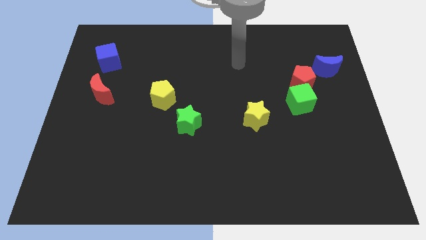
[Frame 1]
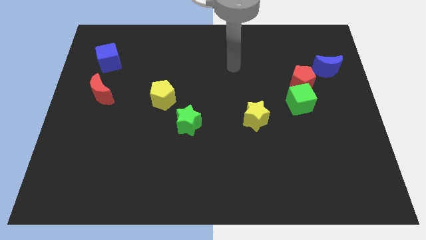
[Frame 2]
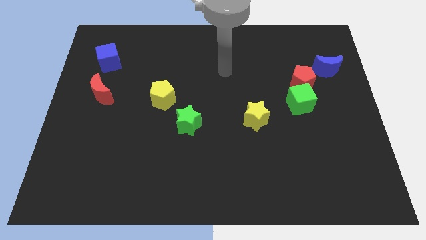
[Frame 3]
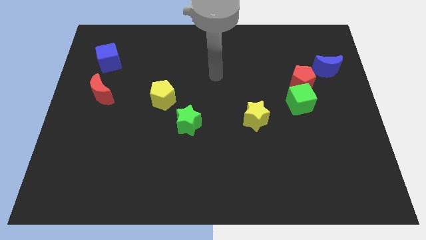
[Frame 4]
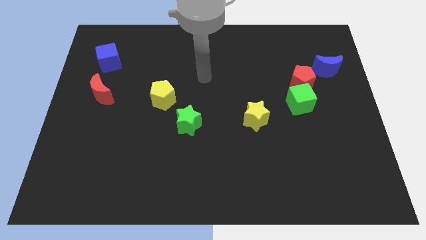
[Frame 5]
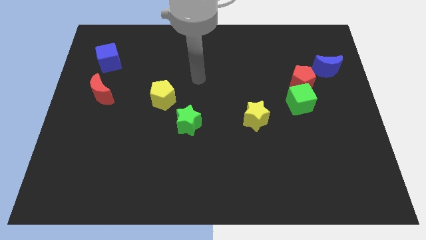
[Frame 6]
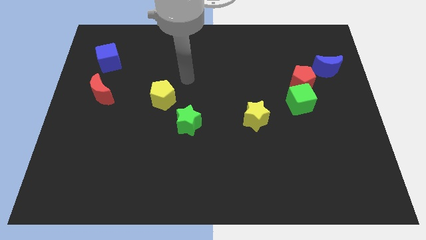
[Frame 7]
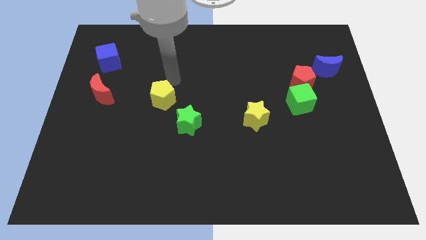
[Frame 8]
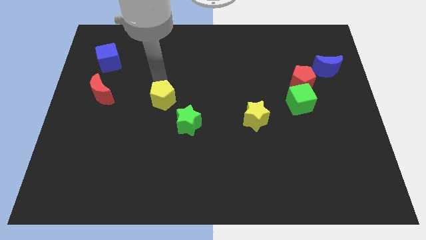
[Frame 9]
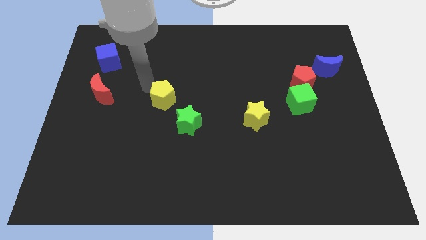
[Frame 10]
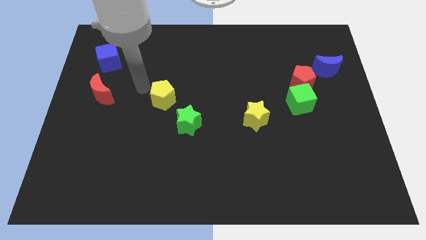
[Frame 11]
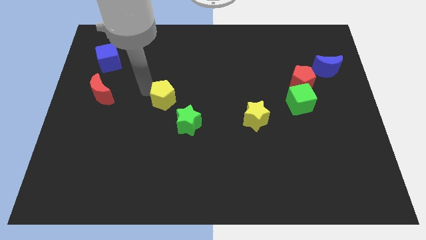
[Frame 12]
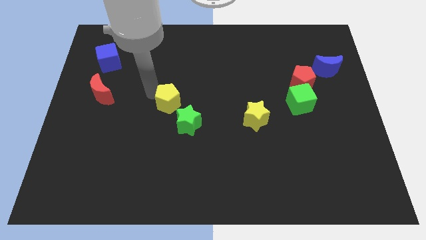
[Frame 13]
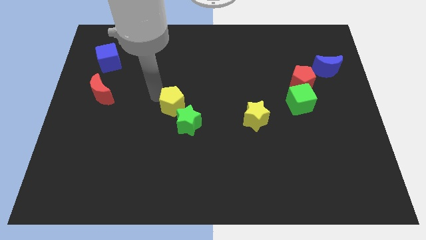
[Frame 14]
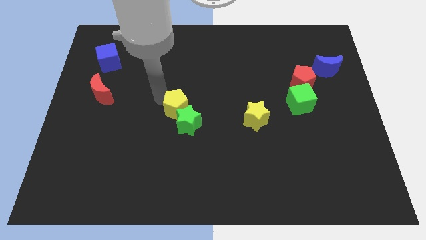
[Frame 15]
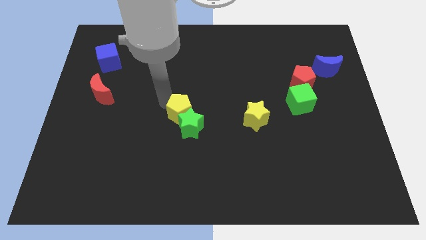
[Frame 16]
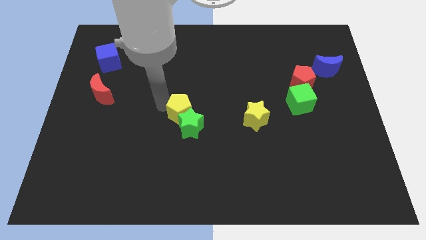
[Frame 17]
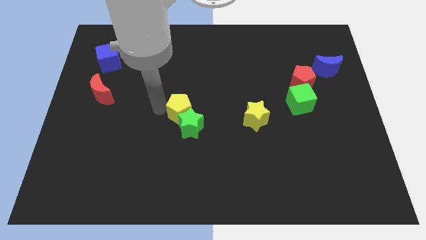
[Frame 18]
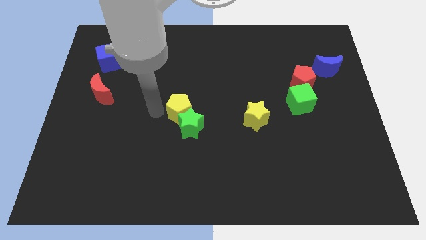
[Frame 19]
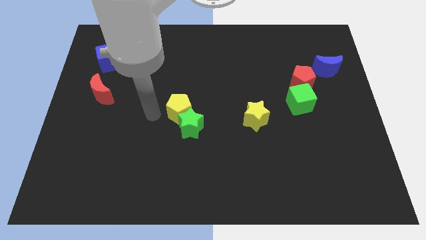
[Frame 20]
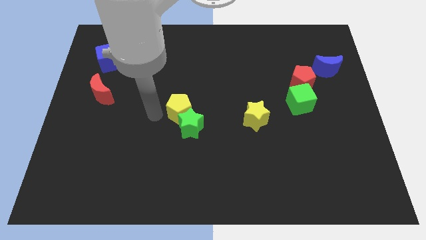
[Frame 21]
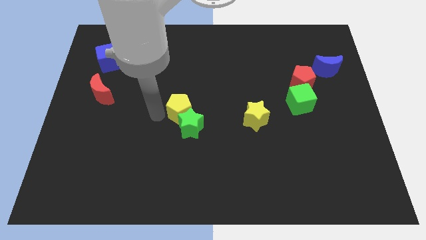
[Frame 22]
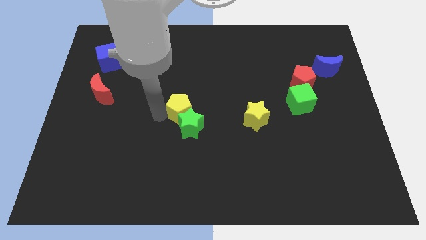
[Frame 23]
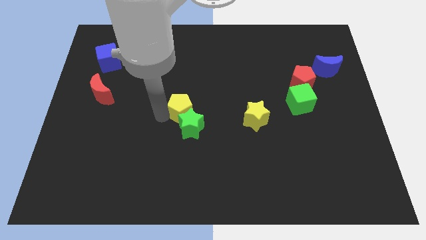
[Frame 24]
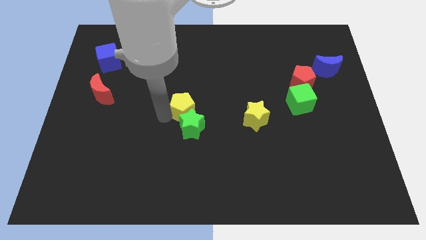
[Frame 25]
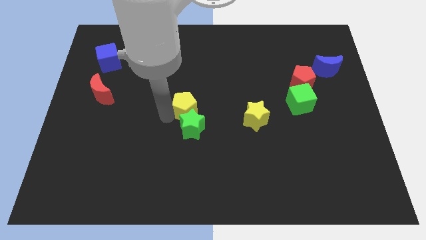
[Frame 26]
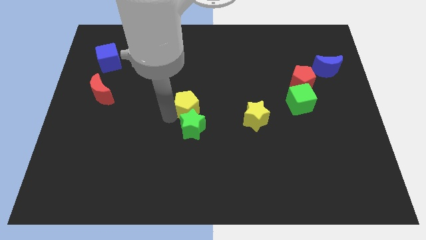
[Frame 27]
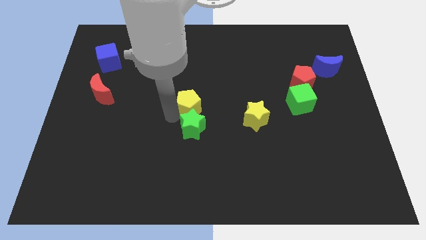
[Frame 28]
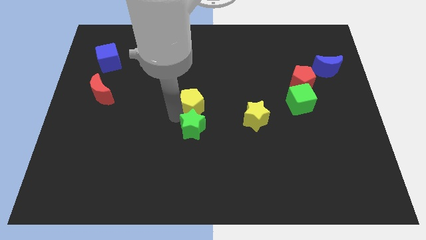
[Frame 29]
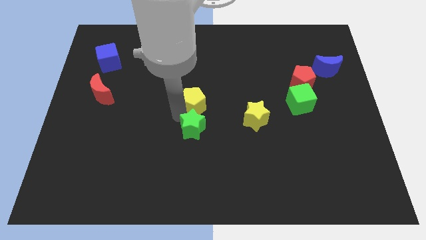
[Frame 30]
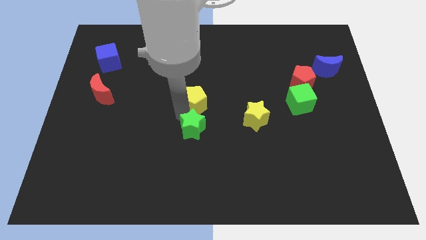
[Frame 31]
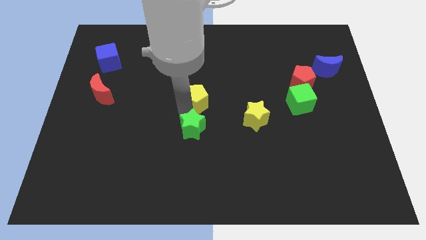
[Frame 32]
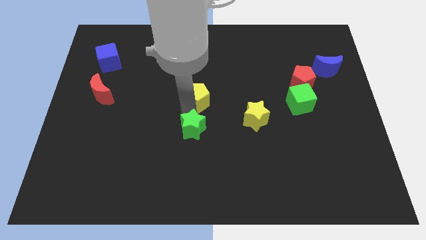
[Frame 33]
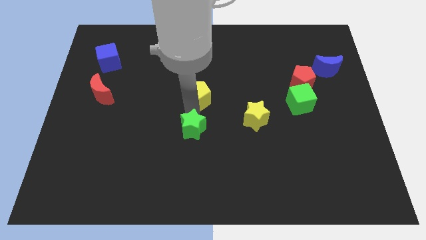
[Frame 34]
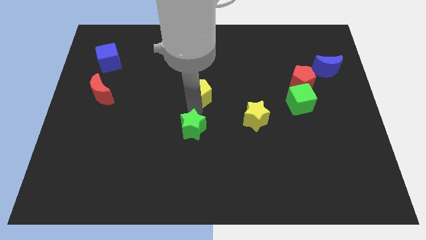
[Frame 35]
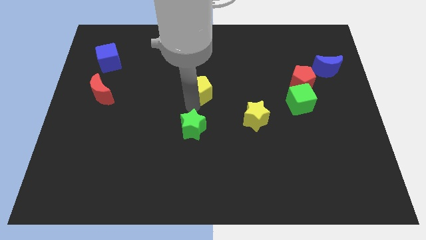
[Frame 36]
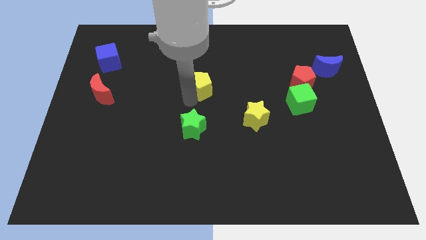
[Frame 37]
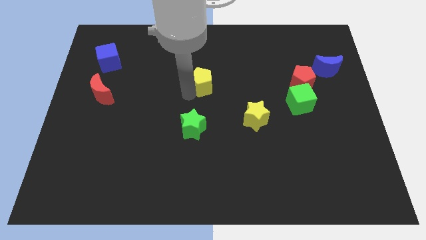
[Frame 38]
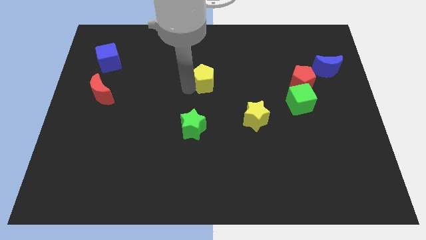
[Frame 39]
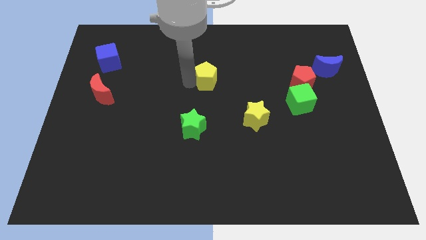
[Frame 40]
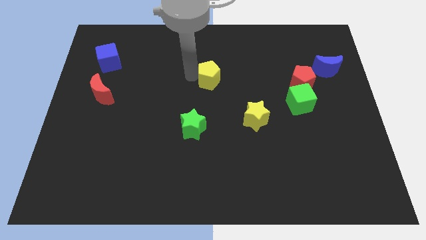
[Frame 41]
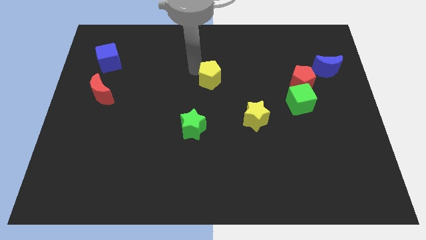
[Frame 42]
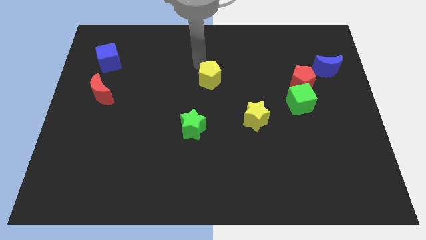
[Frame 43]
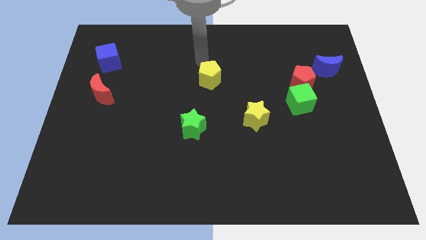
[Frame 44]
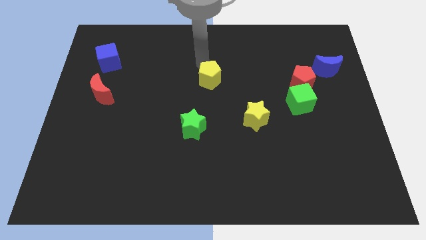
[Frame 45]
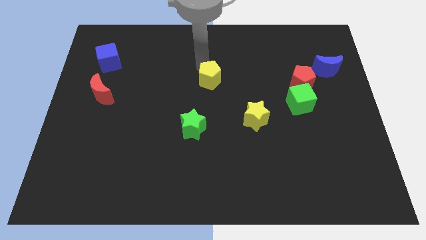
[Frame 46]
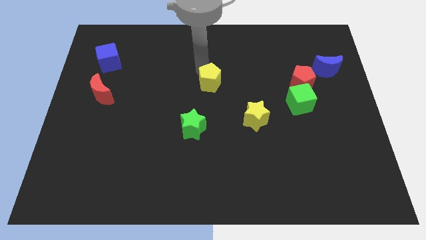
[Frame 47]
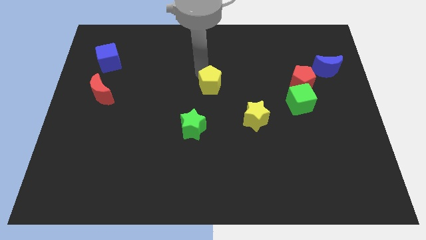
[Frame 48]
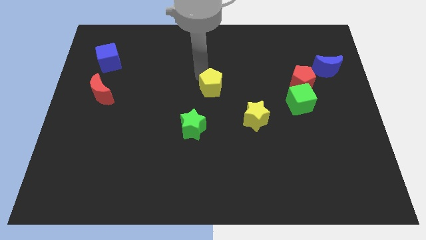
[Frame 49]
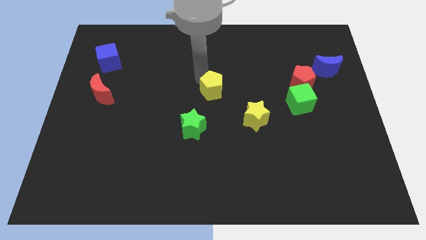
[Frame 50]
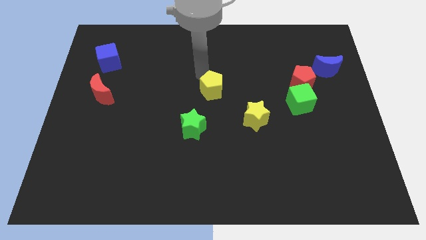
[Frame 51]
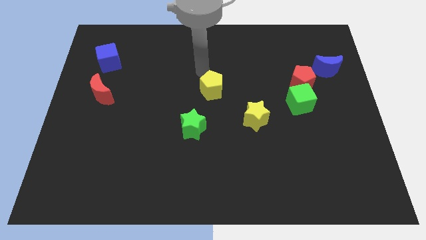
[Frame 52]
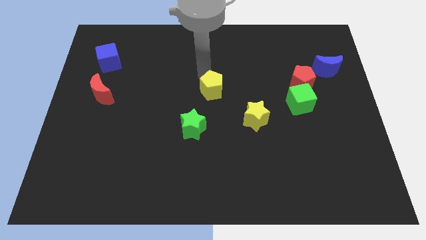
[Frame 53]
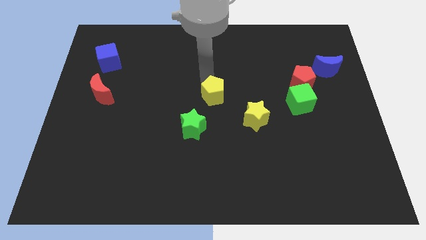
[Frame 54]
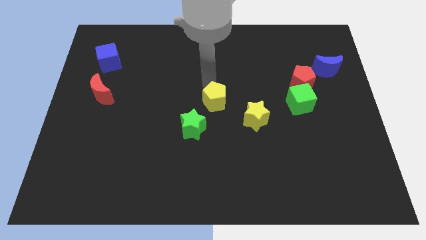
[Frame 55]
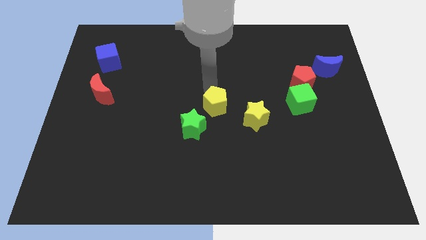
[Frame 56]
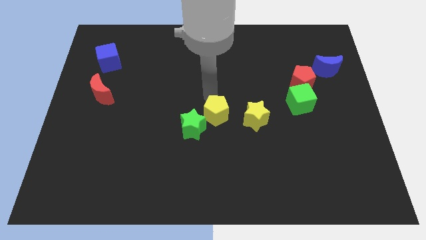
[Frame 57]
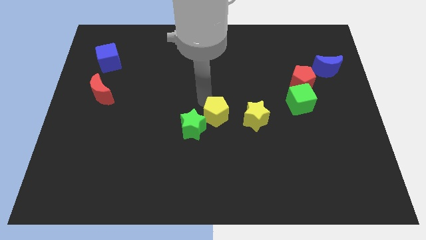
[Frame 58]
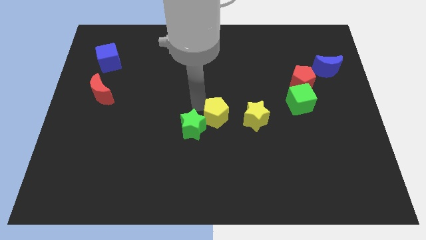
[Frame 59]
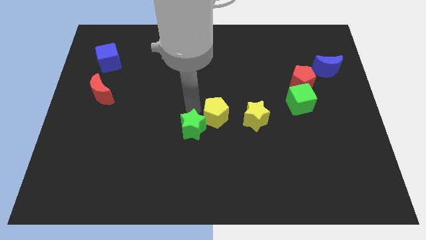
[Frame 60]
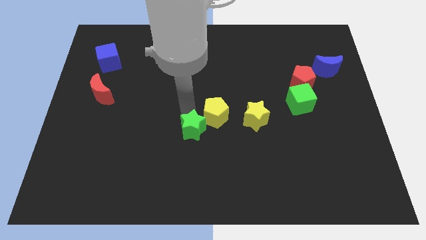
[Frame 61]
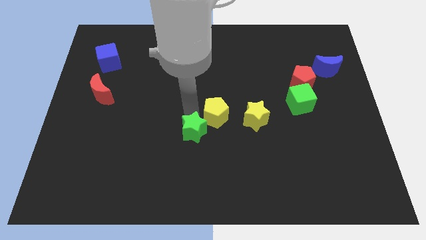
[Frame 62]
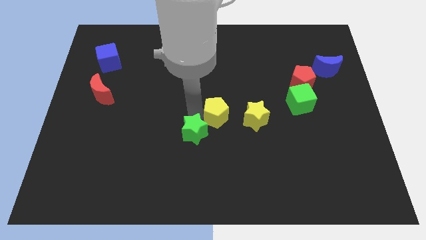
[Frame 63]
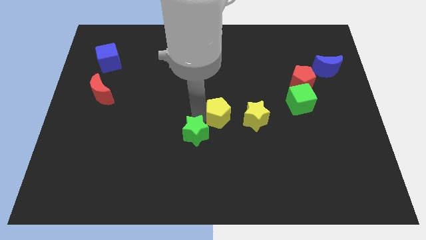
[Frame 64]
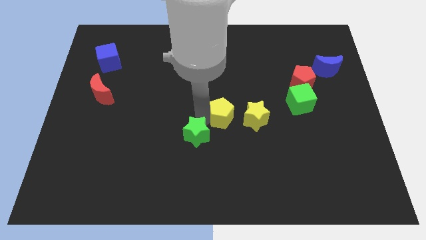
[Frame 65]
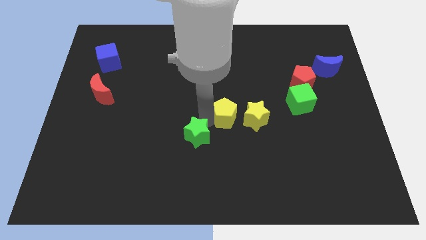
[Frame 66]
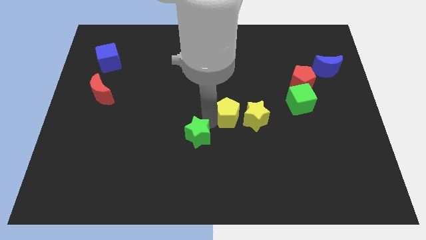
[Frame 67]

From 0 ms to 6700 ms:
move the yellow pentagon close to the yellow star
